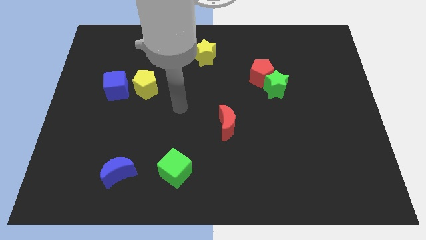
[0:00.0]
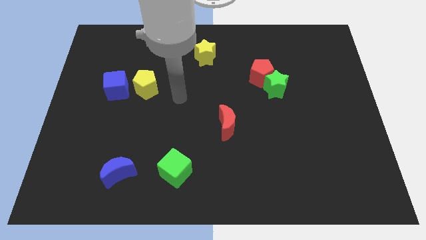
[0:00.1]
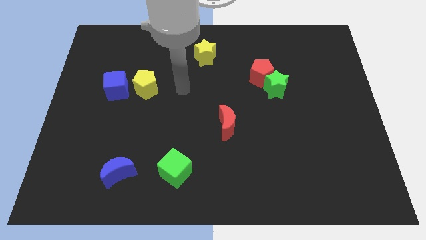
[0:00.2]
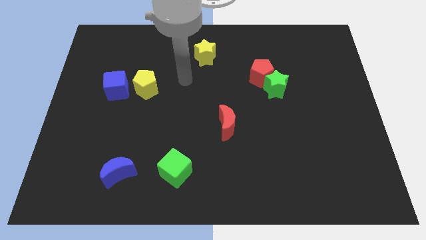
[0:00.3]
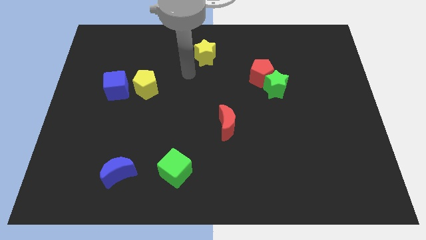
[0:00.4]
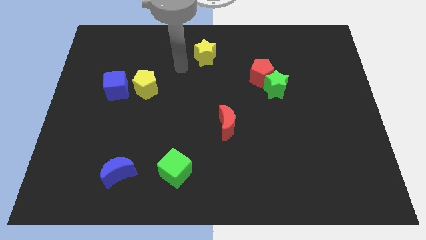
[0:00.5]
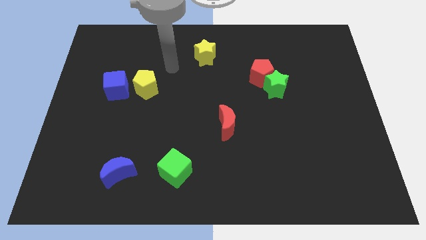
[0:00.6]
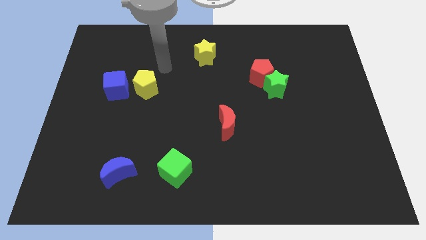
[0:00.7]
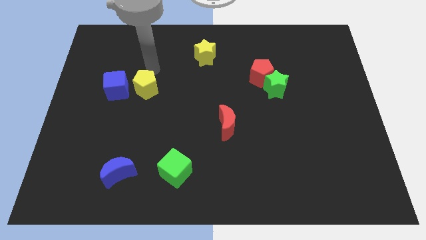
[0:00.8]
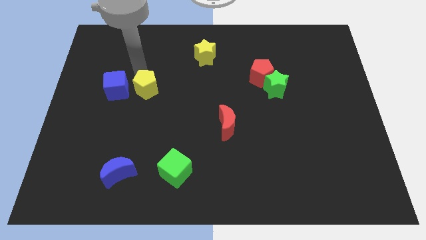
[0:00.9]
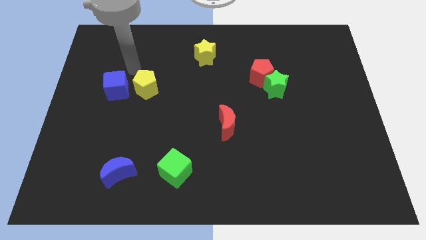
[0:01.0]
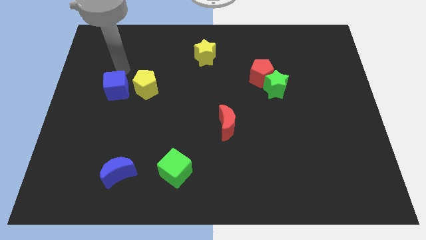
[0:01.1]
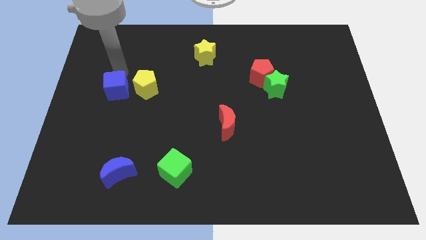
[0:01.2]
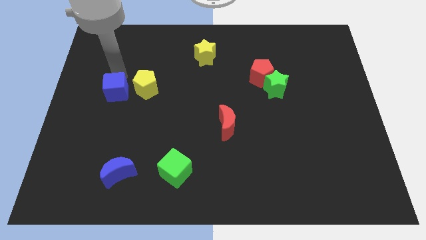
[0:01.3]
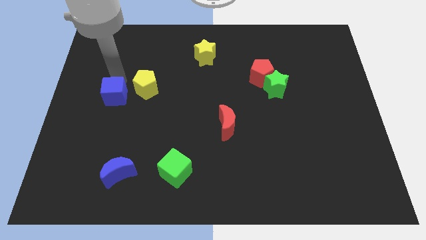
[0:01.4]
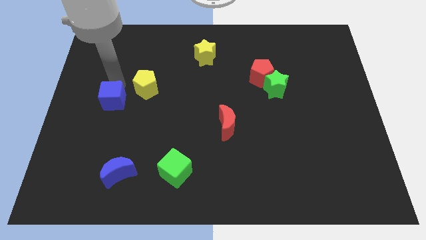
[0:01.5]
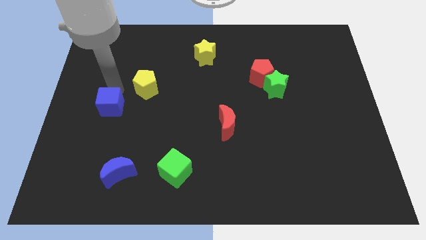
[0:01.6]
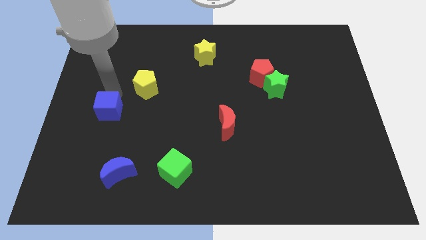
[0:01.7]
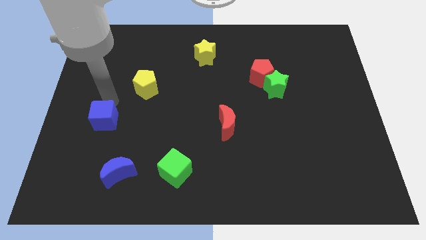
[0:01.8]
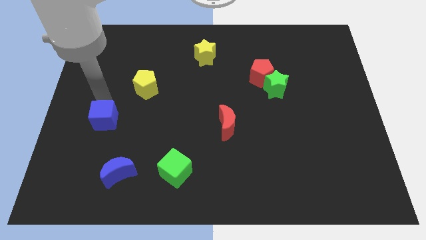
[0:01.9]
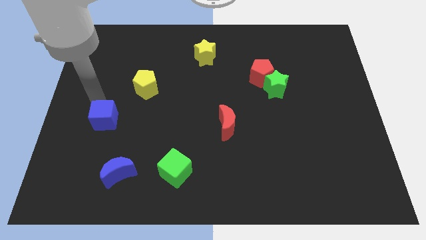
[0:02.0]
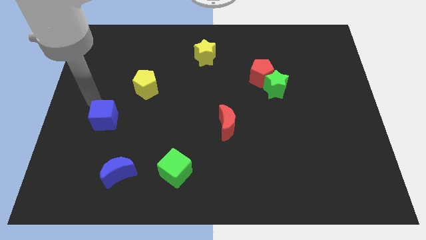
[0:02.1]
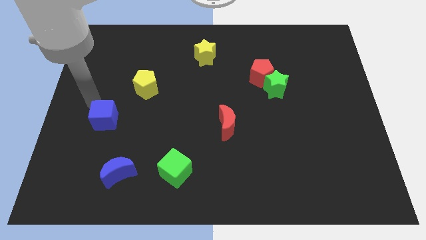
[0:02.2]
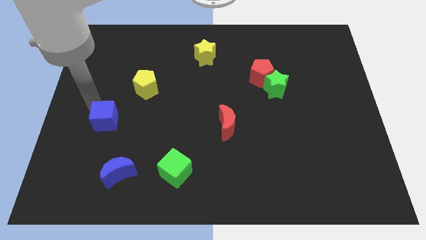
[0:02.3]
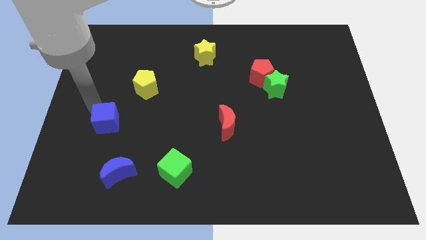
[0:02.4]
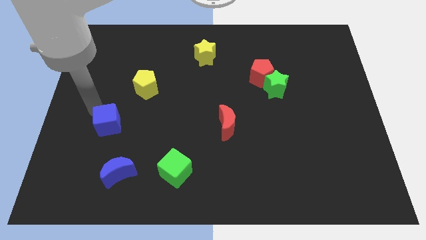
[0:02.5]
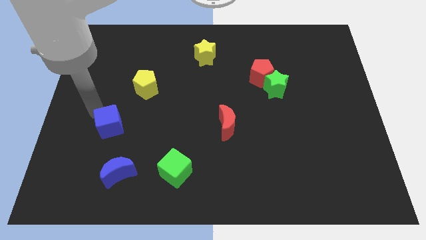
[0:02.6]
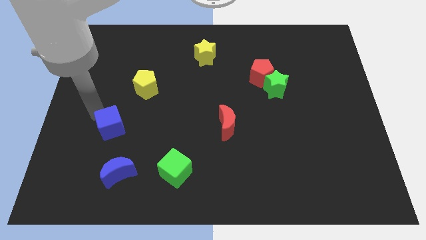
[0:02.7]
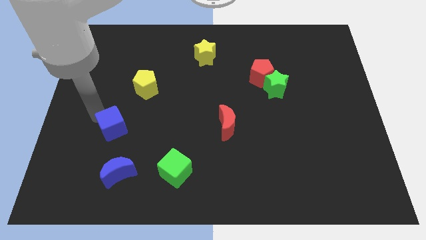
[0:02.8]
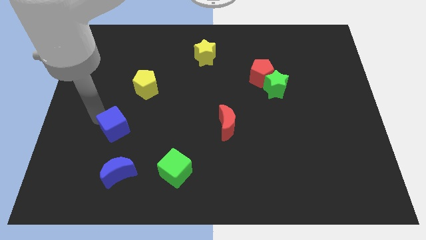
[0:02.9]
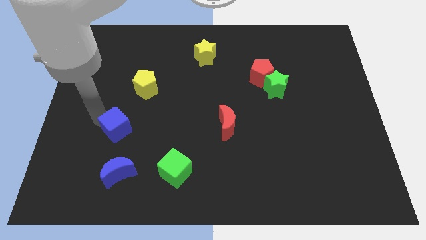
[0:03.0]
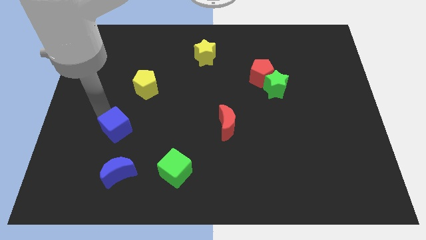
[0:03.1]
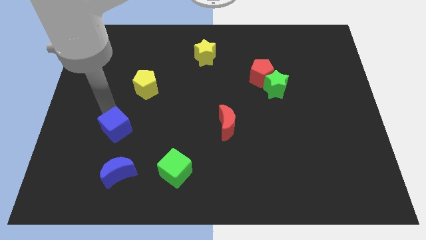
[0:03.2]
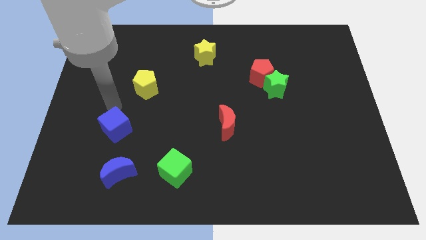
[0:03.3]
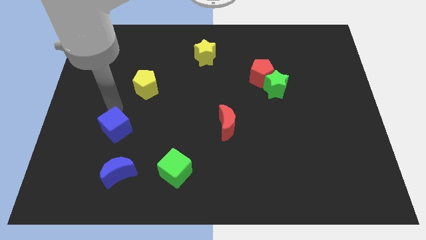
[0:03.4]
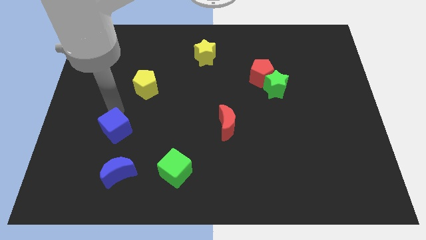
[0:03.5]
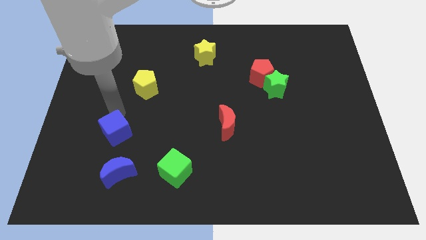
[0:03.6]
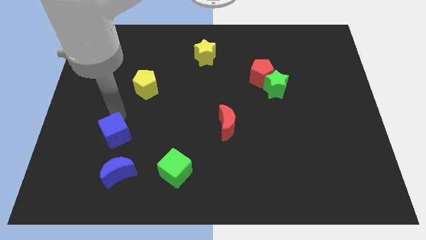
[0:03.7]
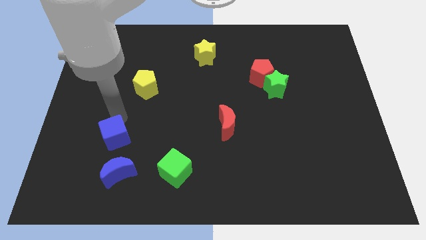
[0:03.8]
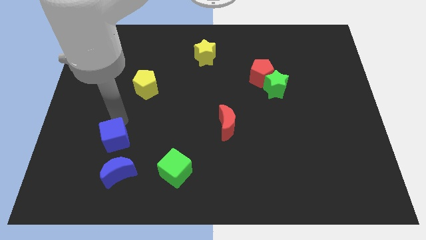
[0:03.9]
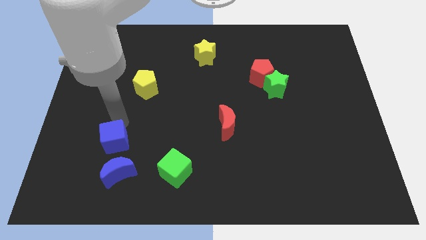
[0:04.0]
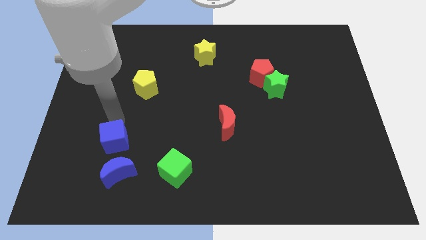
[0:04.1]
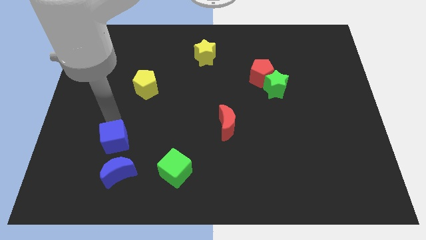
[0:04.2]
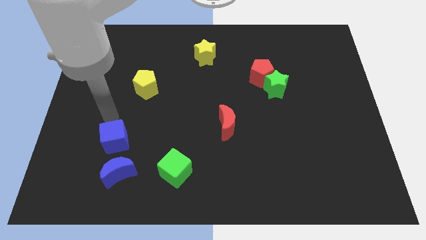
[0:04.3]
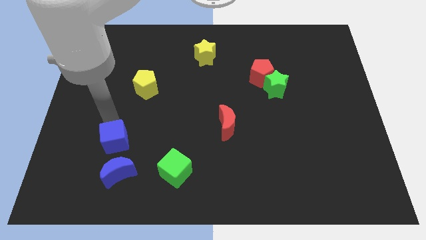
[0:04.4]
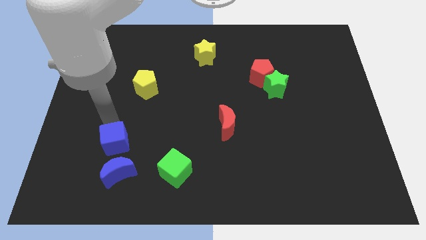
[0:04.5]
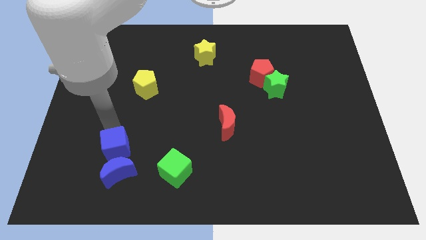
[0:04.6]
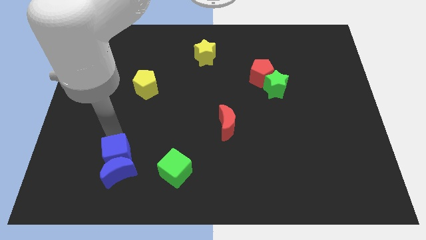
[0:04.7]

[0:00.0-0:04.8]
move the blue cube close to the blue moon

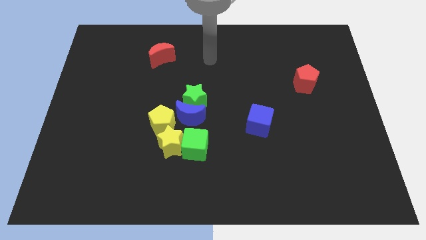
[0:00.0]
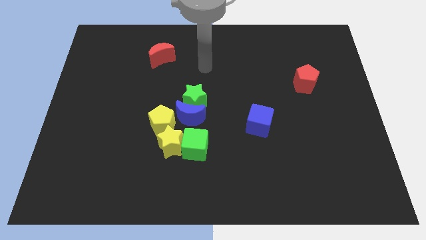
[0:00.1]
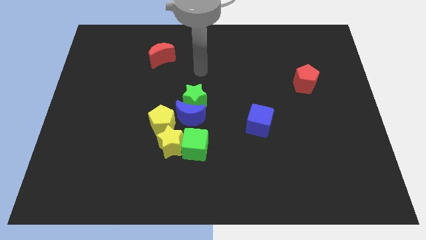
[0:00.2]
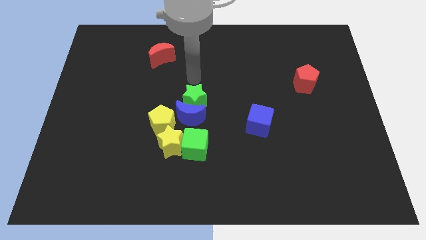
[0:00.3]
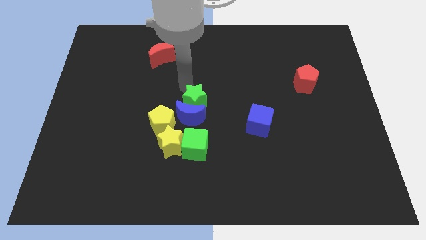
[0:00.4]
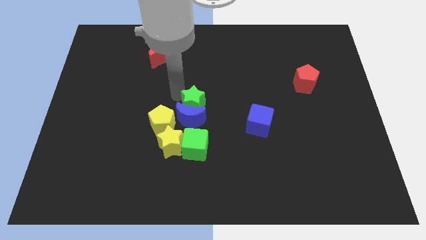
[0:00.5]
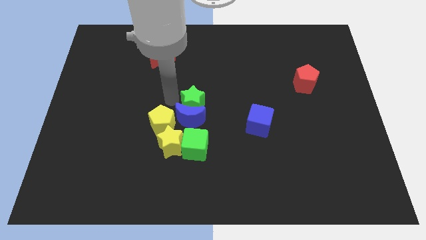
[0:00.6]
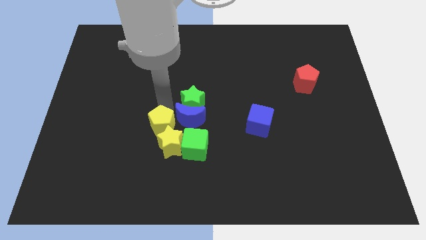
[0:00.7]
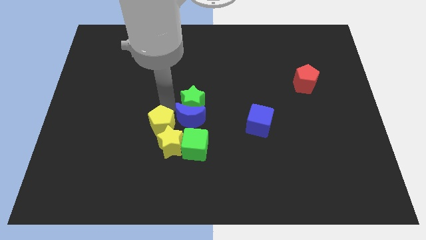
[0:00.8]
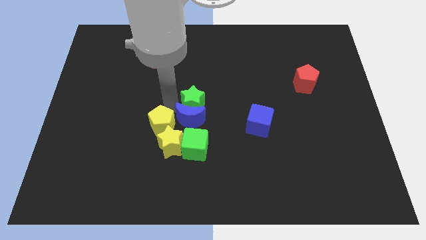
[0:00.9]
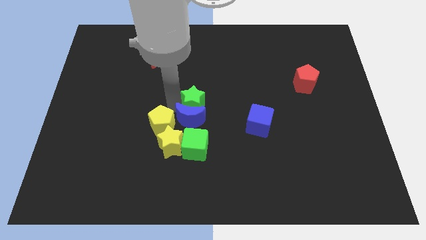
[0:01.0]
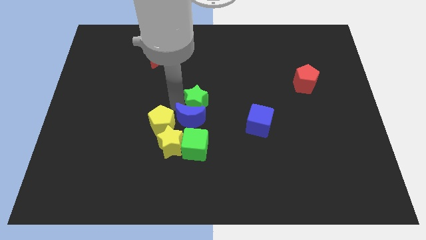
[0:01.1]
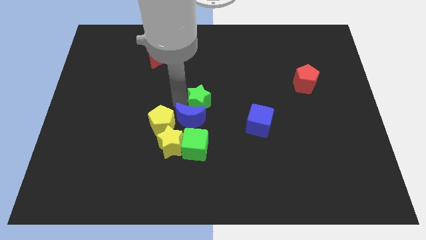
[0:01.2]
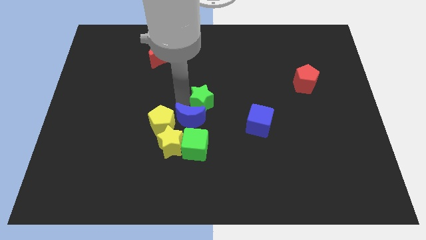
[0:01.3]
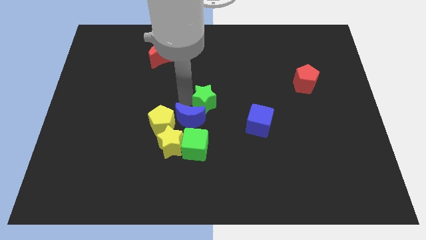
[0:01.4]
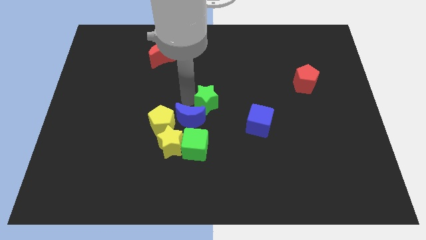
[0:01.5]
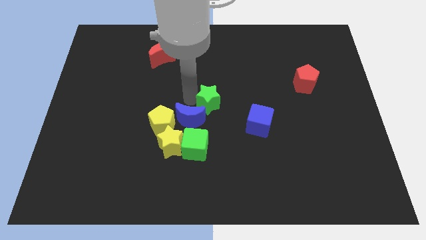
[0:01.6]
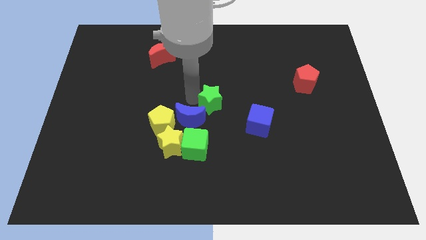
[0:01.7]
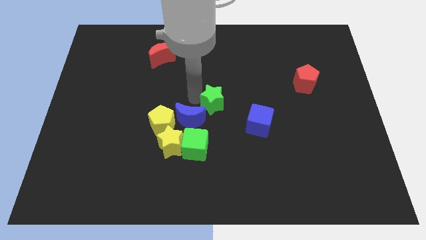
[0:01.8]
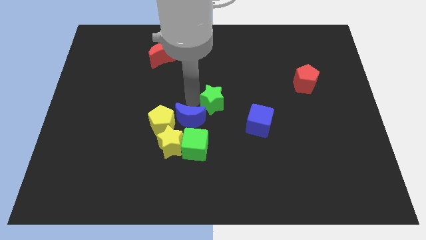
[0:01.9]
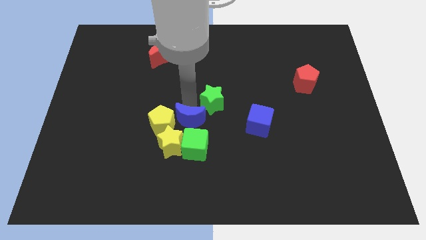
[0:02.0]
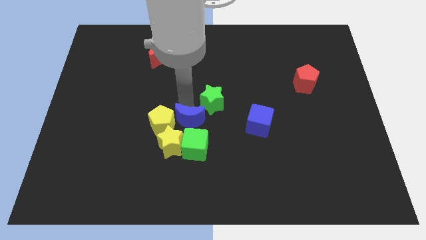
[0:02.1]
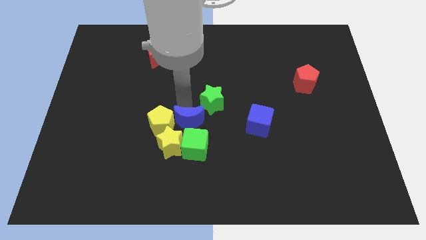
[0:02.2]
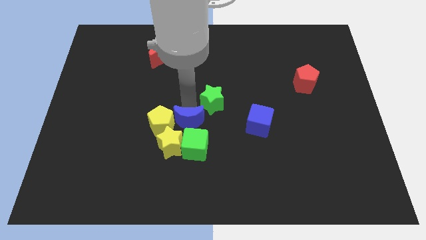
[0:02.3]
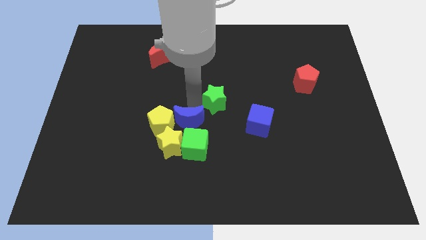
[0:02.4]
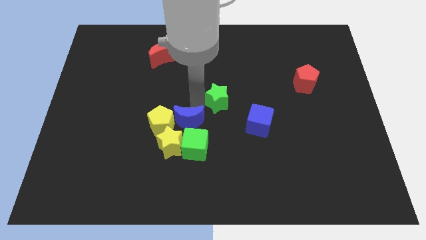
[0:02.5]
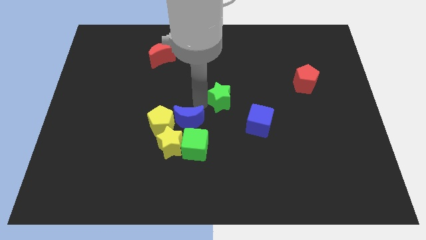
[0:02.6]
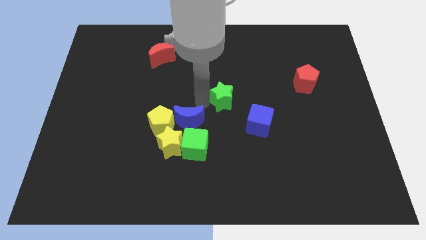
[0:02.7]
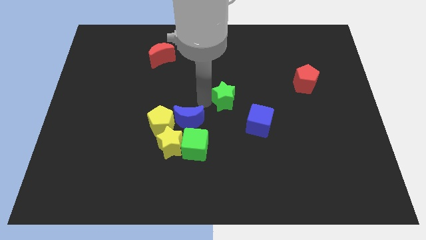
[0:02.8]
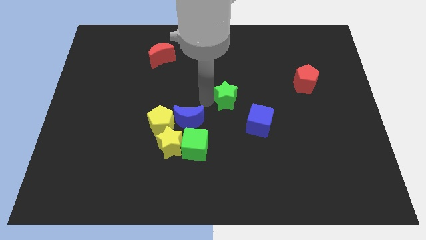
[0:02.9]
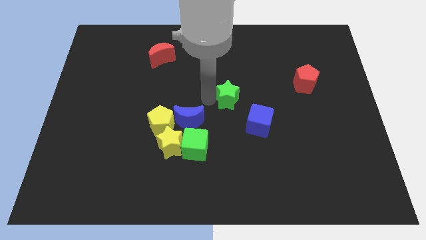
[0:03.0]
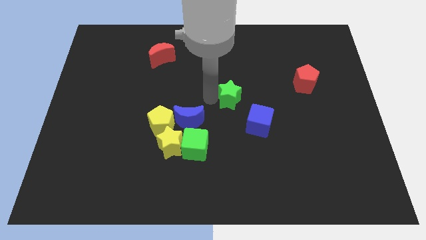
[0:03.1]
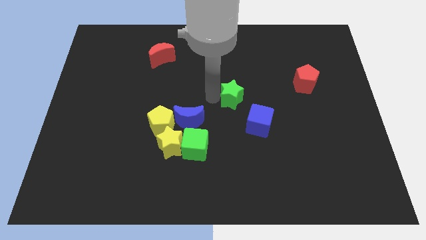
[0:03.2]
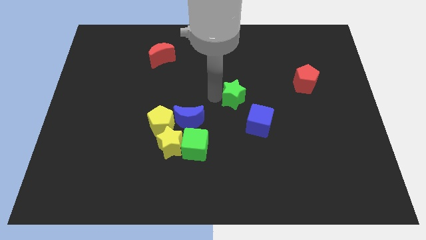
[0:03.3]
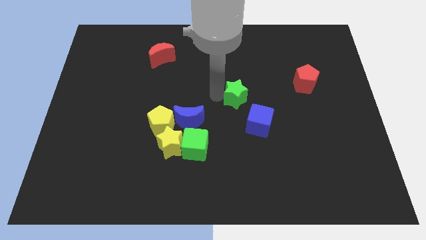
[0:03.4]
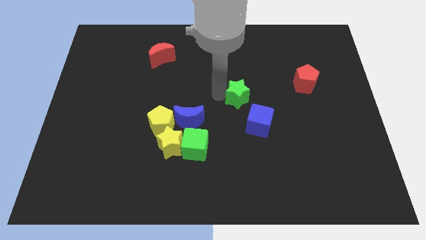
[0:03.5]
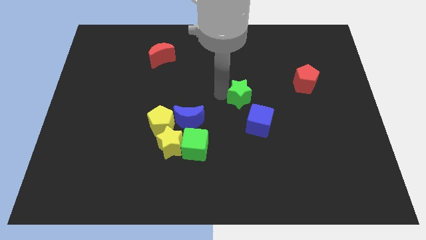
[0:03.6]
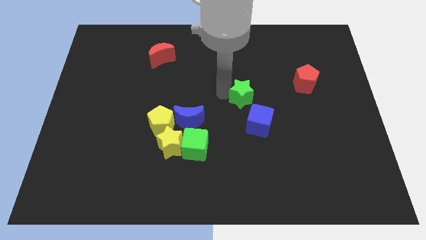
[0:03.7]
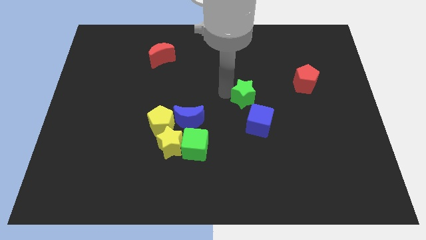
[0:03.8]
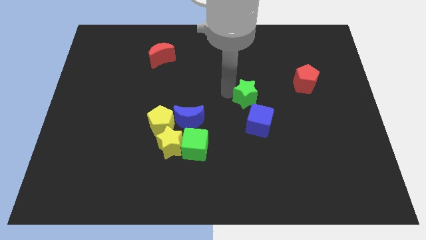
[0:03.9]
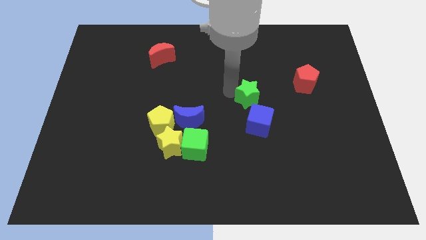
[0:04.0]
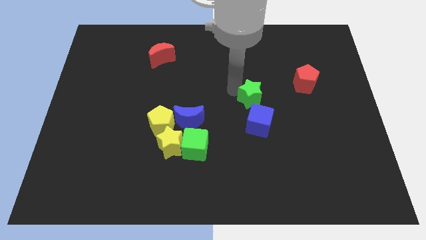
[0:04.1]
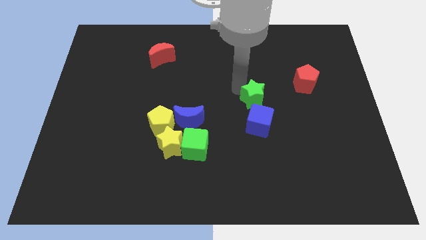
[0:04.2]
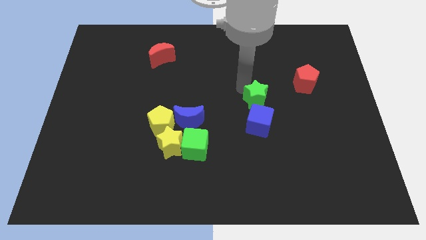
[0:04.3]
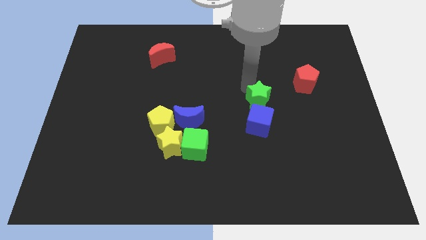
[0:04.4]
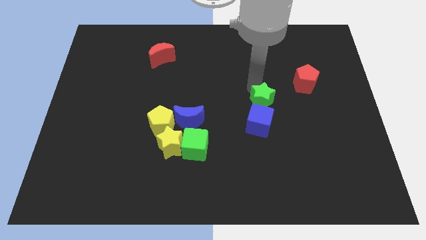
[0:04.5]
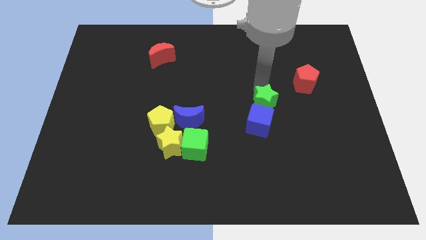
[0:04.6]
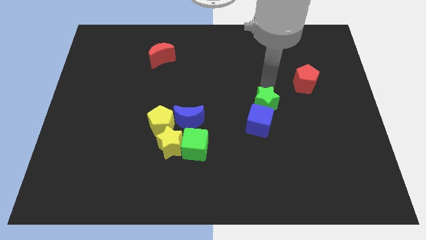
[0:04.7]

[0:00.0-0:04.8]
put the green star to the blue cube
